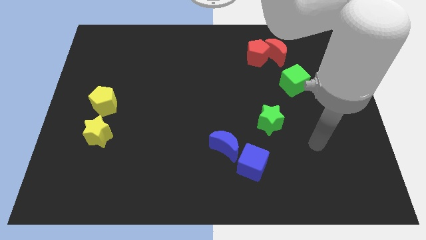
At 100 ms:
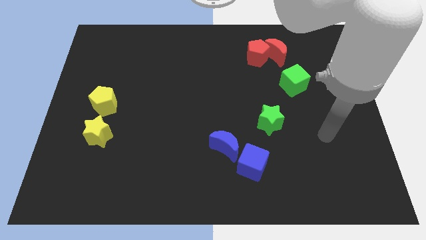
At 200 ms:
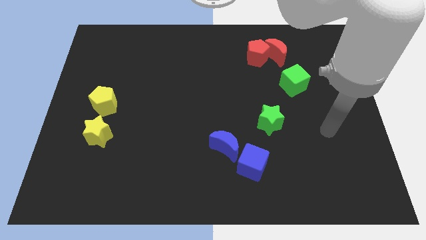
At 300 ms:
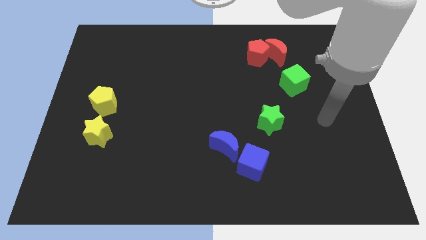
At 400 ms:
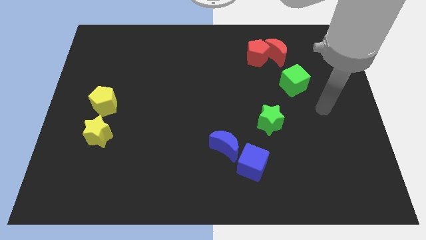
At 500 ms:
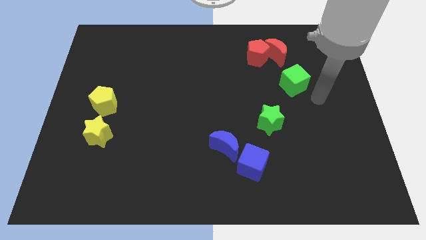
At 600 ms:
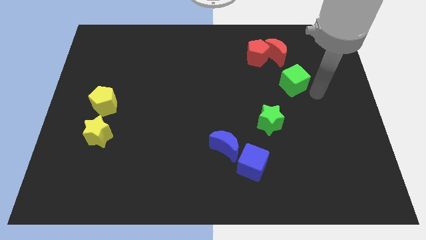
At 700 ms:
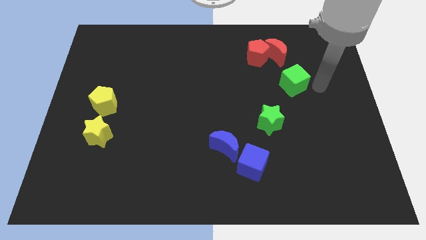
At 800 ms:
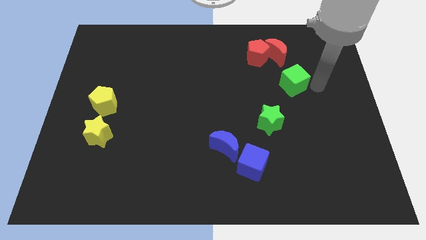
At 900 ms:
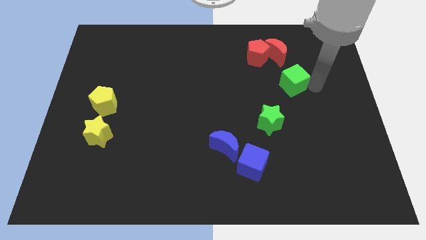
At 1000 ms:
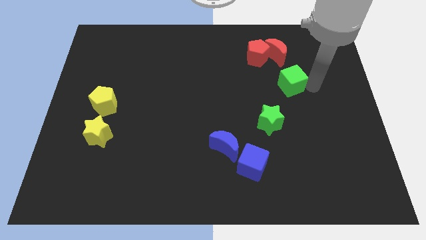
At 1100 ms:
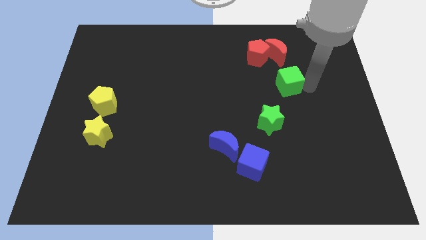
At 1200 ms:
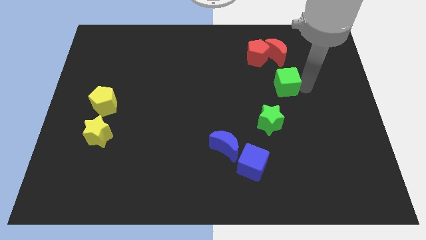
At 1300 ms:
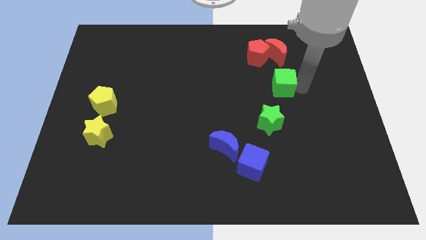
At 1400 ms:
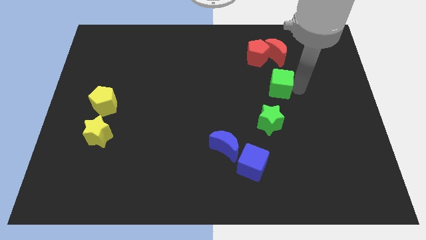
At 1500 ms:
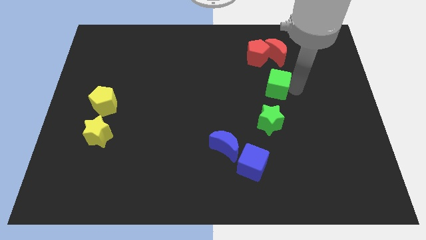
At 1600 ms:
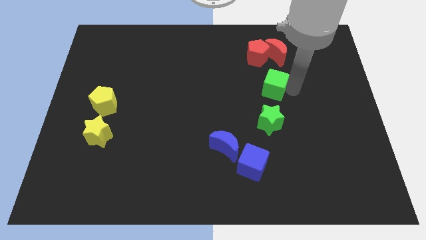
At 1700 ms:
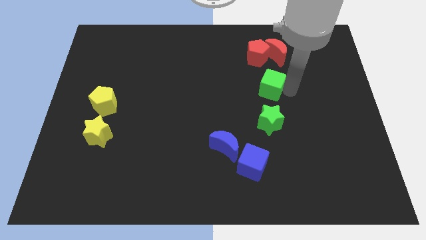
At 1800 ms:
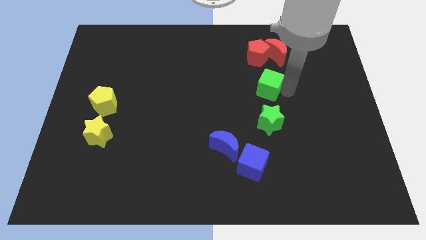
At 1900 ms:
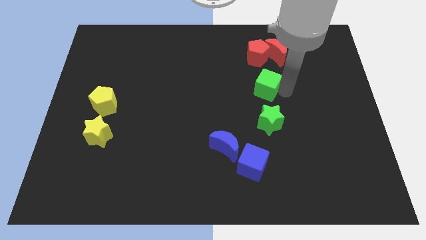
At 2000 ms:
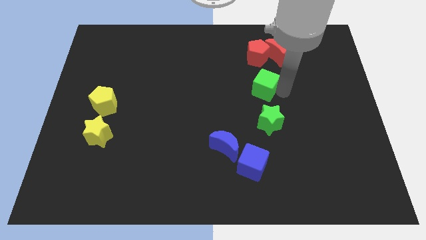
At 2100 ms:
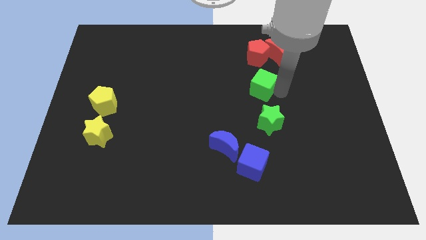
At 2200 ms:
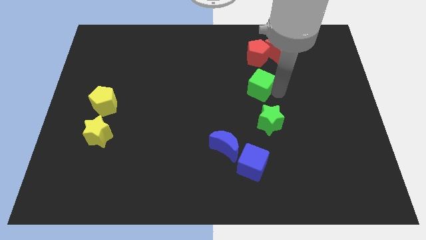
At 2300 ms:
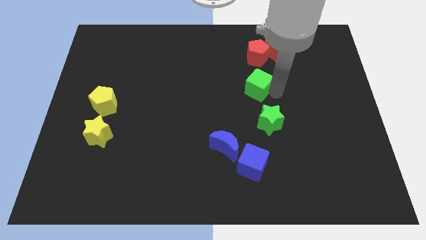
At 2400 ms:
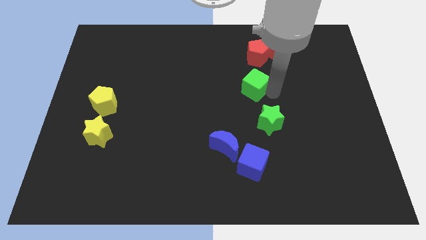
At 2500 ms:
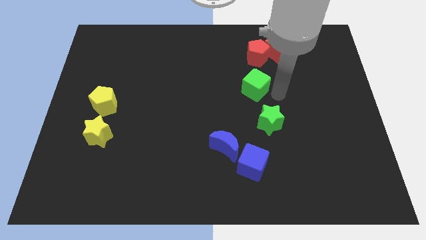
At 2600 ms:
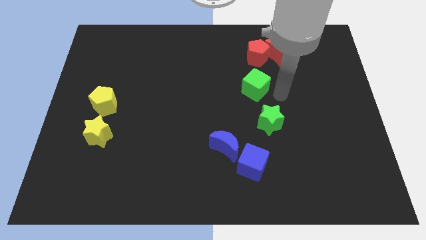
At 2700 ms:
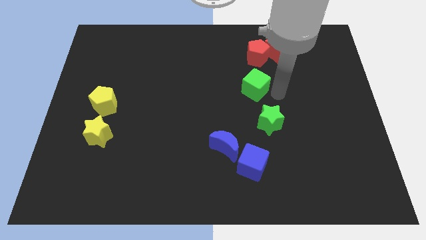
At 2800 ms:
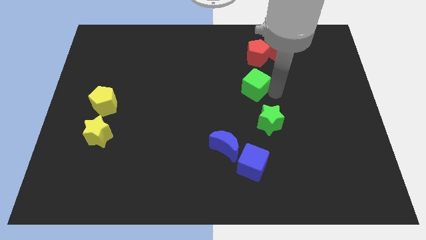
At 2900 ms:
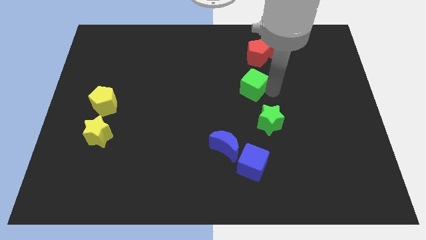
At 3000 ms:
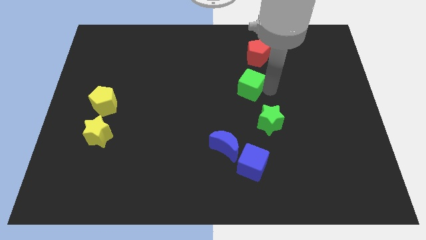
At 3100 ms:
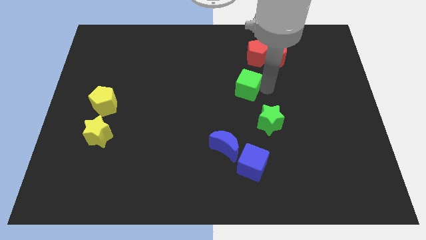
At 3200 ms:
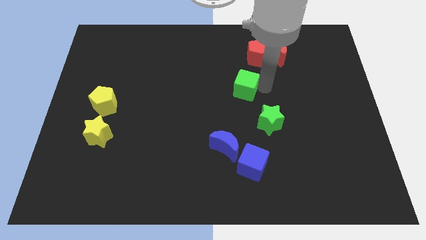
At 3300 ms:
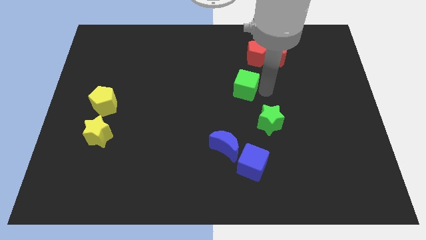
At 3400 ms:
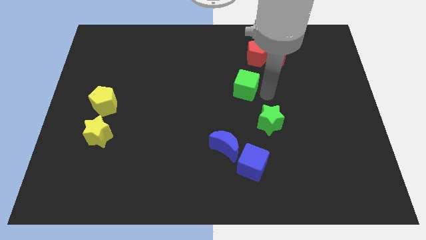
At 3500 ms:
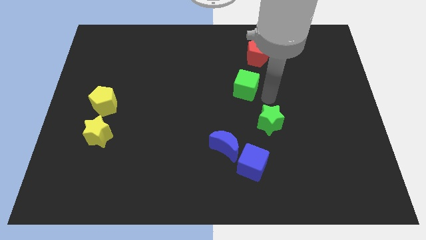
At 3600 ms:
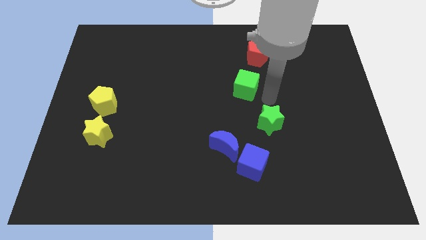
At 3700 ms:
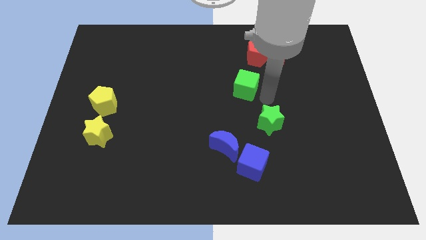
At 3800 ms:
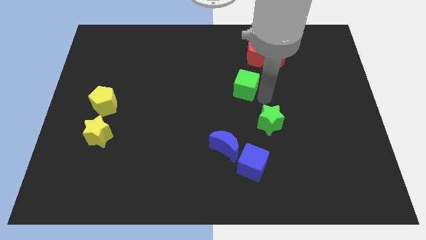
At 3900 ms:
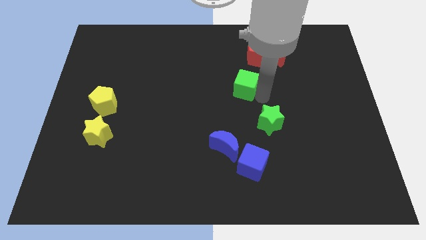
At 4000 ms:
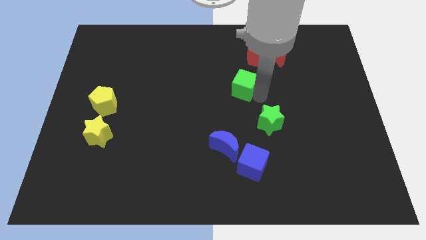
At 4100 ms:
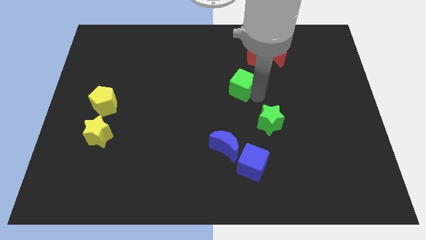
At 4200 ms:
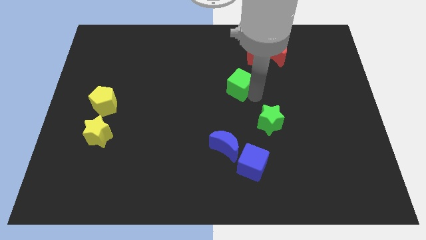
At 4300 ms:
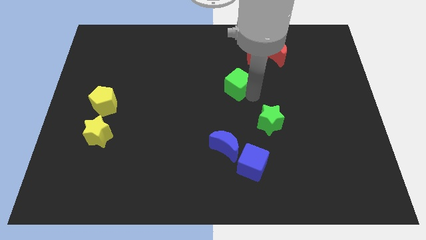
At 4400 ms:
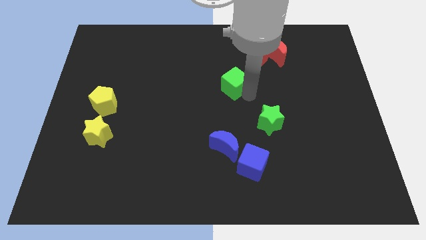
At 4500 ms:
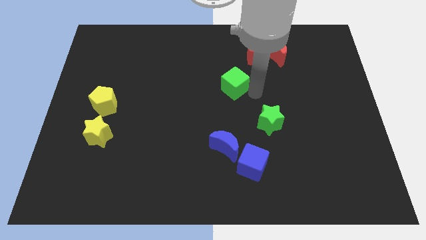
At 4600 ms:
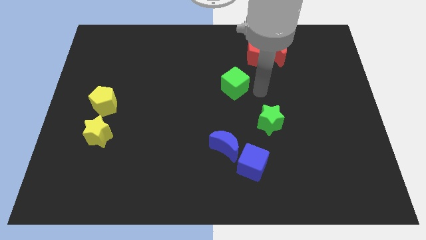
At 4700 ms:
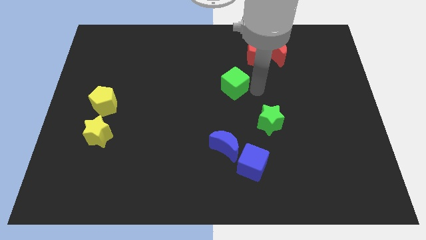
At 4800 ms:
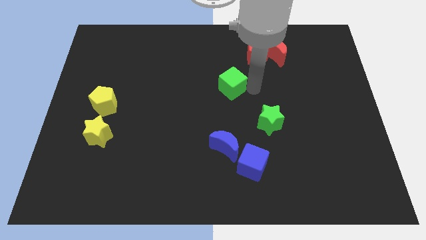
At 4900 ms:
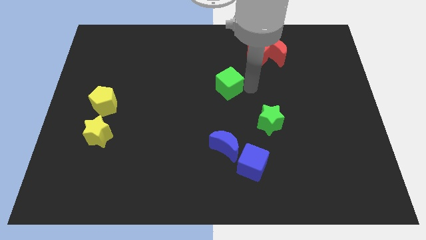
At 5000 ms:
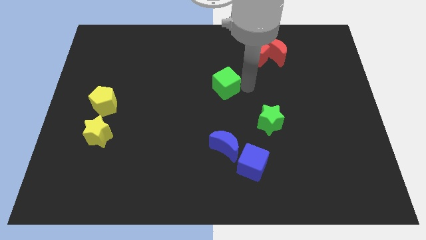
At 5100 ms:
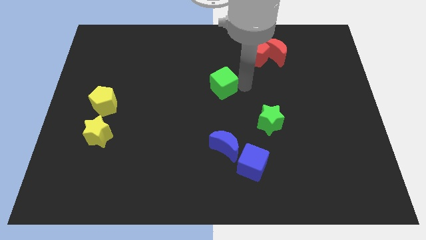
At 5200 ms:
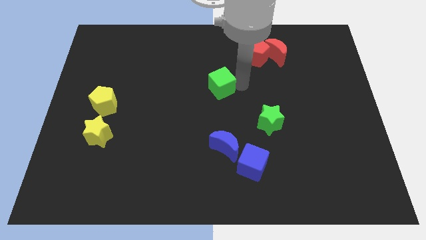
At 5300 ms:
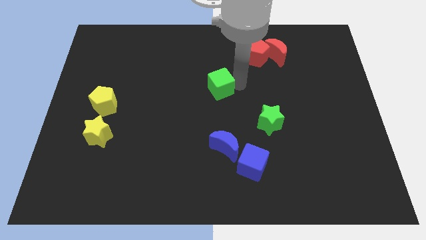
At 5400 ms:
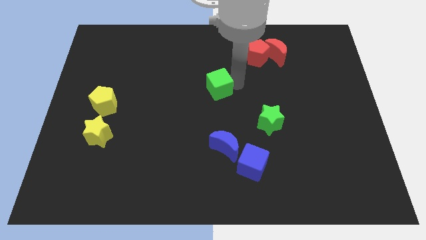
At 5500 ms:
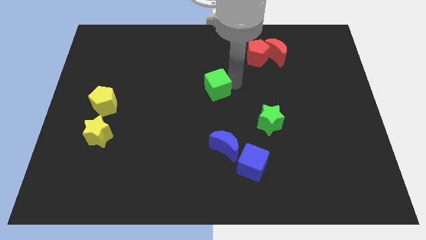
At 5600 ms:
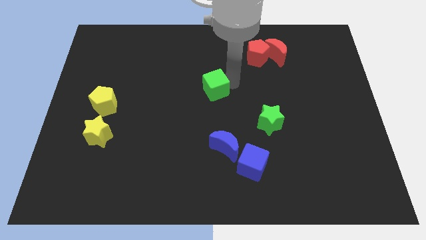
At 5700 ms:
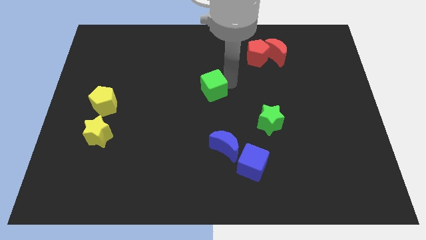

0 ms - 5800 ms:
slide the green cube to the left

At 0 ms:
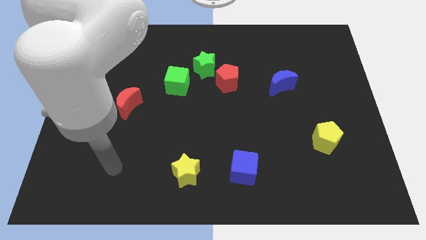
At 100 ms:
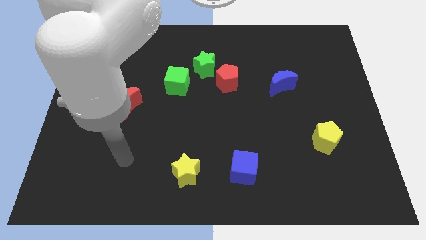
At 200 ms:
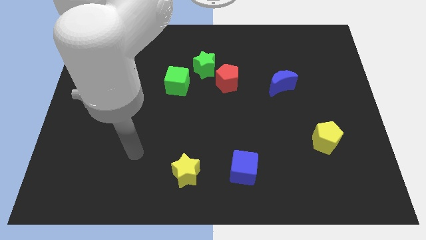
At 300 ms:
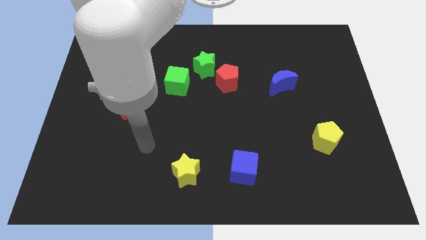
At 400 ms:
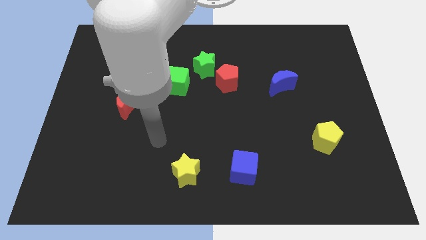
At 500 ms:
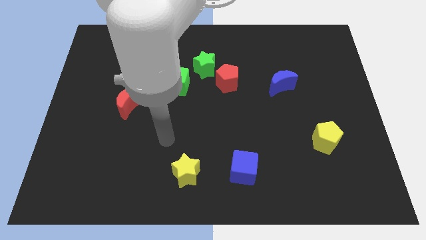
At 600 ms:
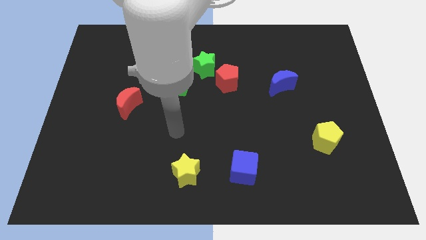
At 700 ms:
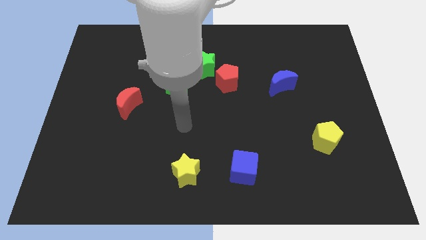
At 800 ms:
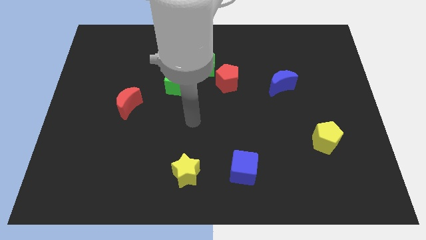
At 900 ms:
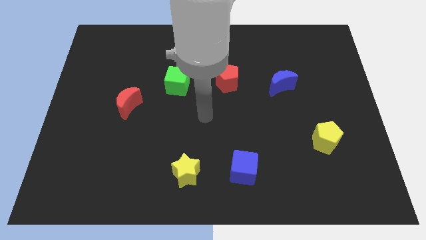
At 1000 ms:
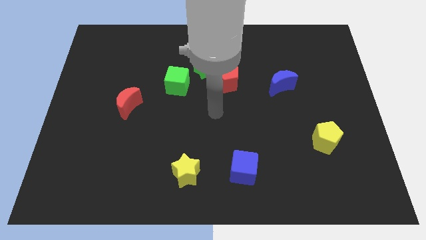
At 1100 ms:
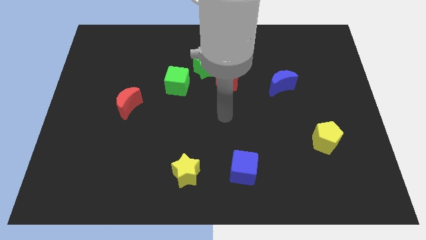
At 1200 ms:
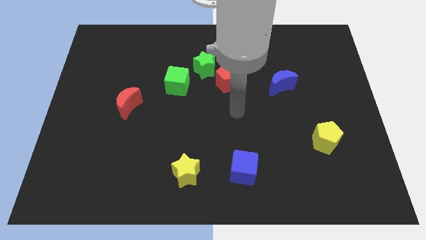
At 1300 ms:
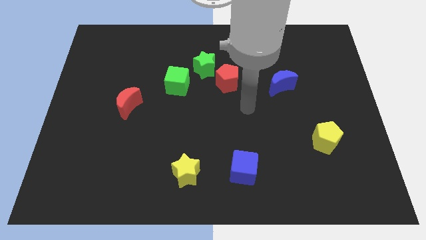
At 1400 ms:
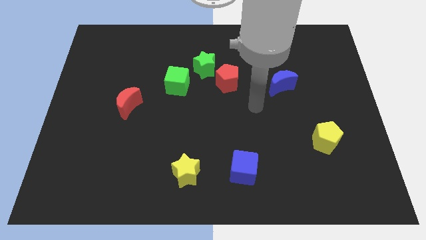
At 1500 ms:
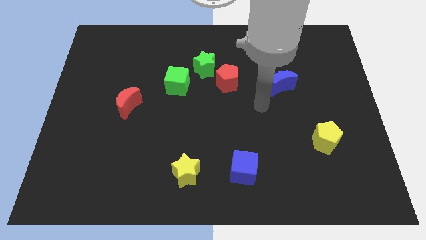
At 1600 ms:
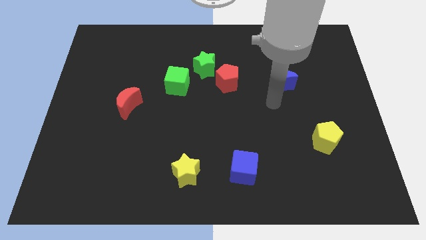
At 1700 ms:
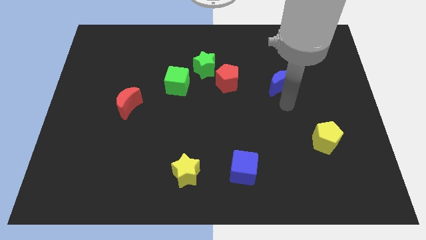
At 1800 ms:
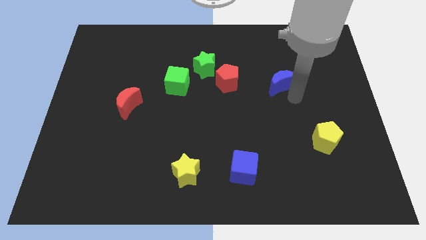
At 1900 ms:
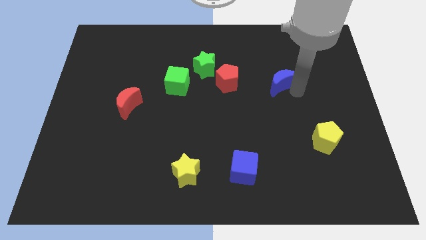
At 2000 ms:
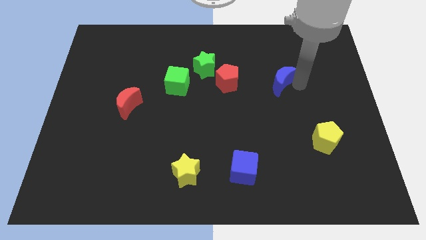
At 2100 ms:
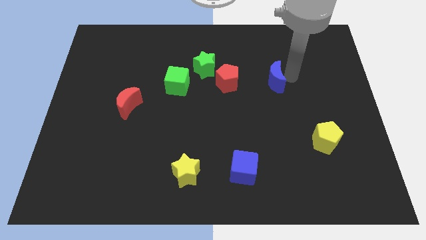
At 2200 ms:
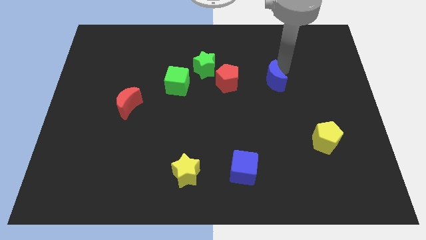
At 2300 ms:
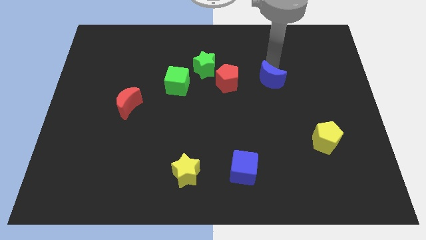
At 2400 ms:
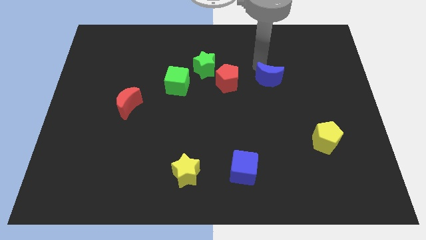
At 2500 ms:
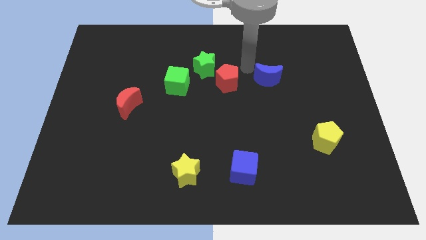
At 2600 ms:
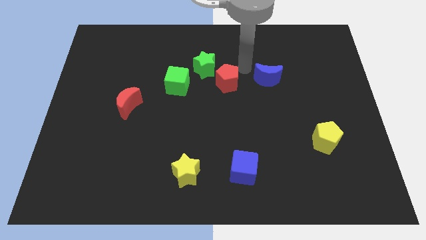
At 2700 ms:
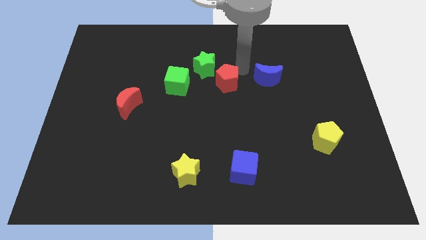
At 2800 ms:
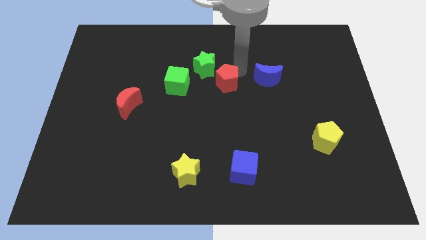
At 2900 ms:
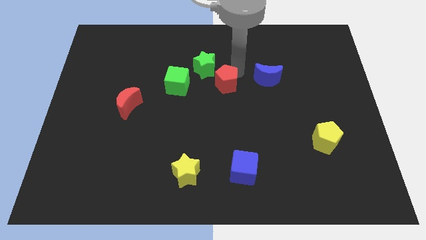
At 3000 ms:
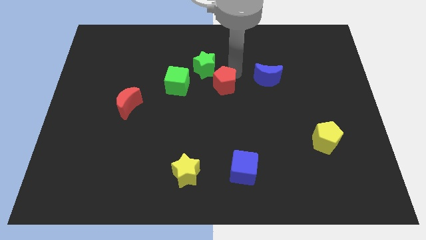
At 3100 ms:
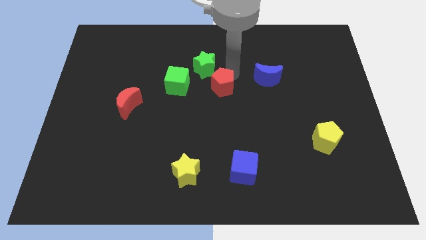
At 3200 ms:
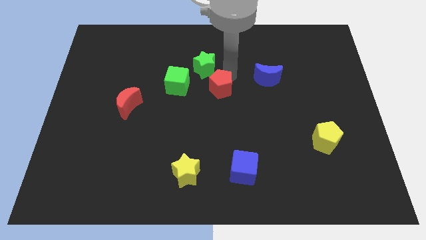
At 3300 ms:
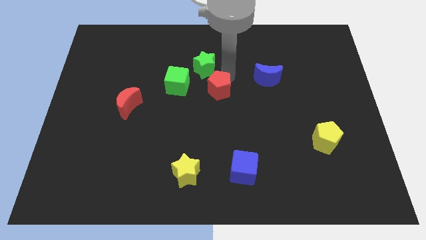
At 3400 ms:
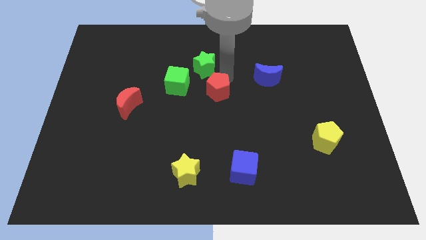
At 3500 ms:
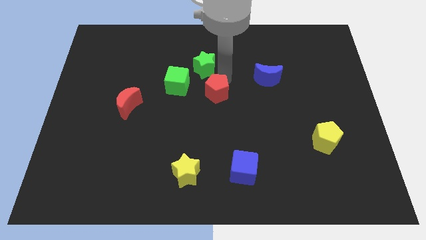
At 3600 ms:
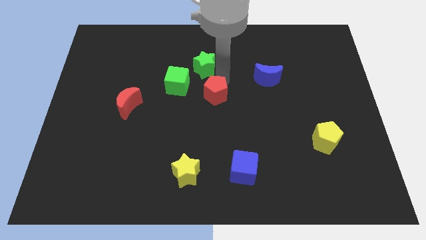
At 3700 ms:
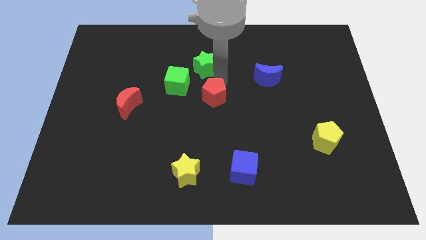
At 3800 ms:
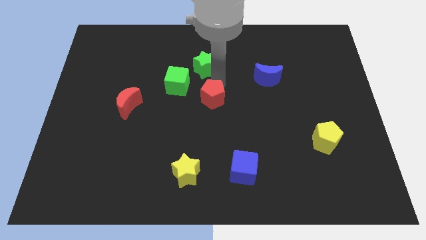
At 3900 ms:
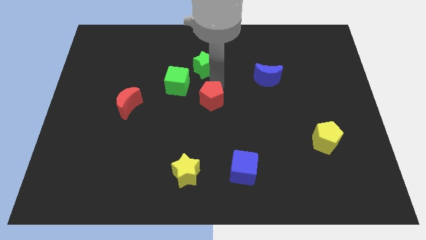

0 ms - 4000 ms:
slide the red pentagon a little bit down and then to the left
